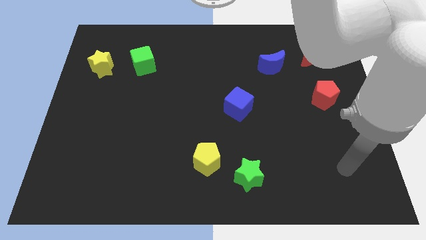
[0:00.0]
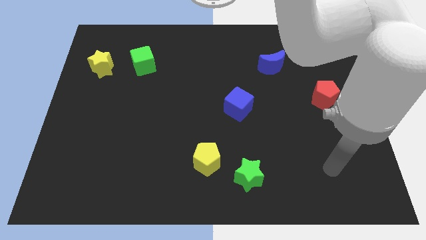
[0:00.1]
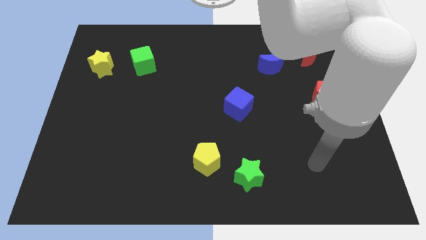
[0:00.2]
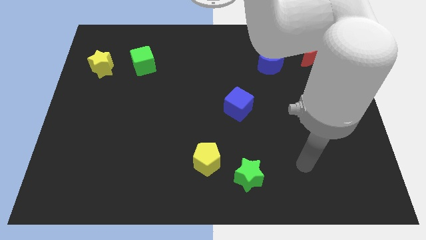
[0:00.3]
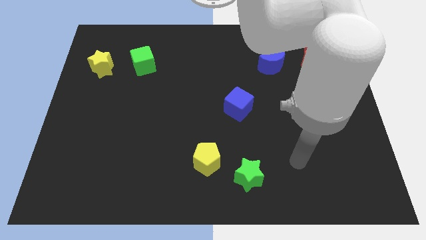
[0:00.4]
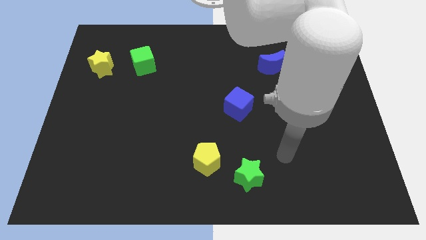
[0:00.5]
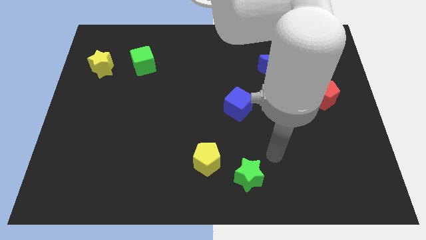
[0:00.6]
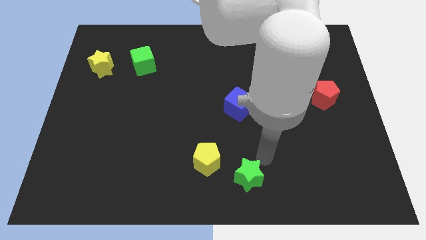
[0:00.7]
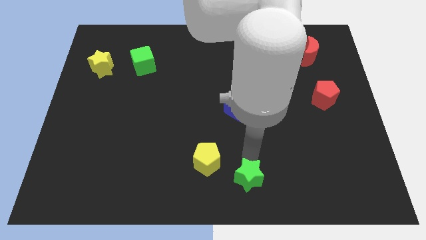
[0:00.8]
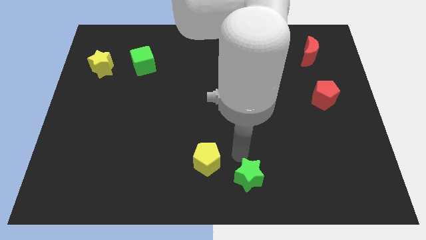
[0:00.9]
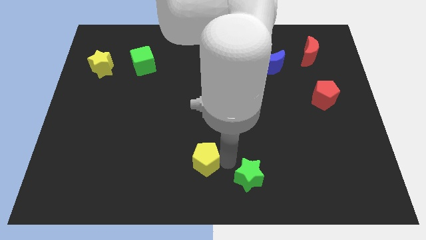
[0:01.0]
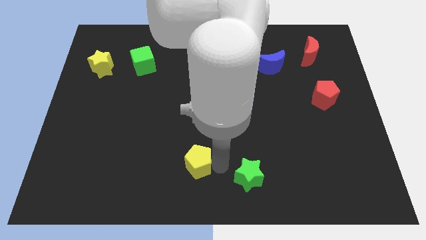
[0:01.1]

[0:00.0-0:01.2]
pull the green star apart from the yellow pentagon

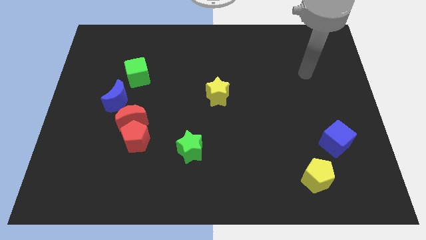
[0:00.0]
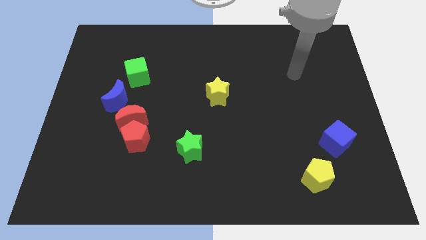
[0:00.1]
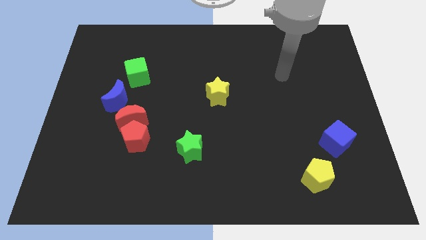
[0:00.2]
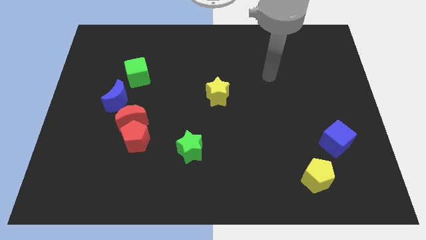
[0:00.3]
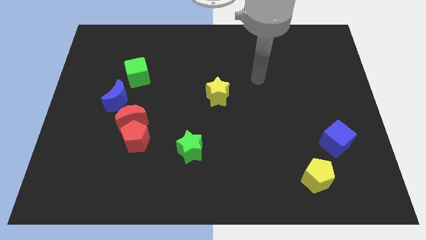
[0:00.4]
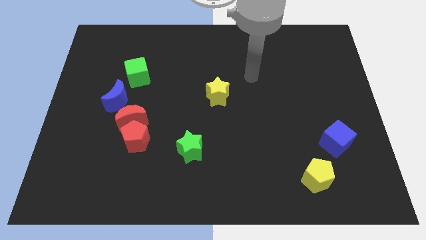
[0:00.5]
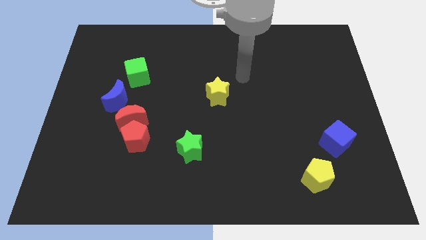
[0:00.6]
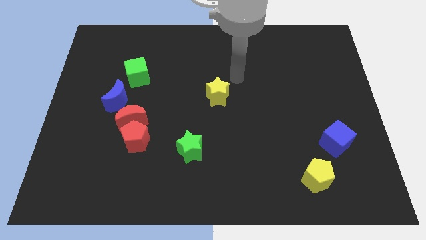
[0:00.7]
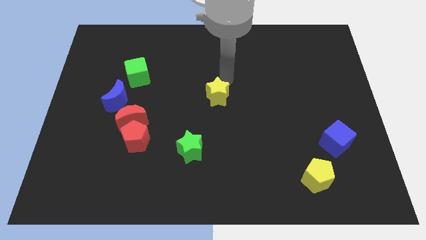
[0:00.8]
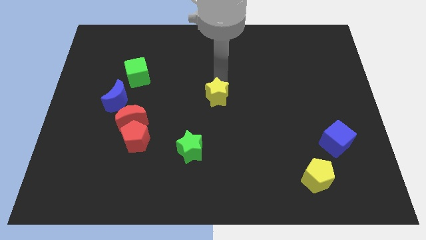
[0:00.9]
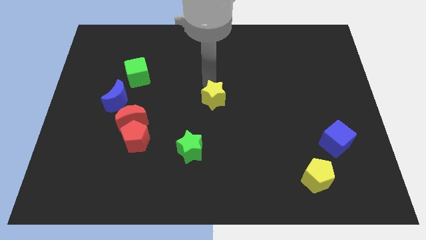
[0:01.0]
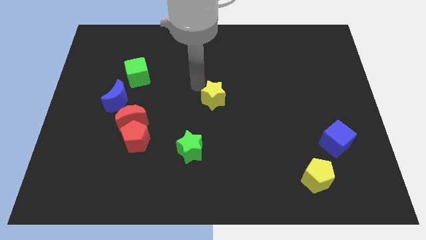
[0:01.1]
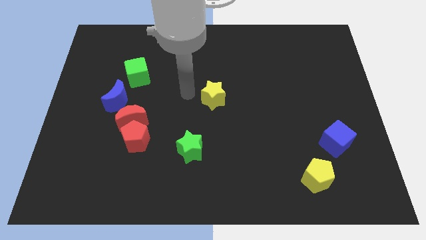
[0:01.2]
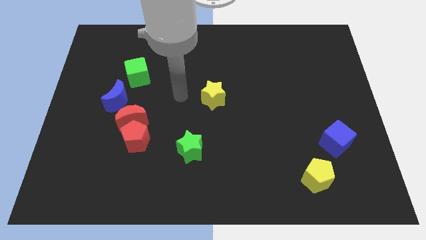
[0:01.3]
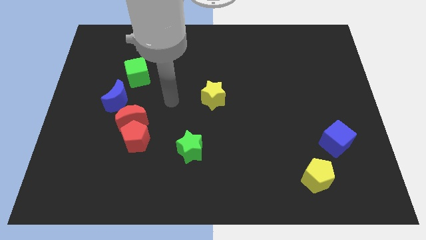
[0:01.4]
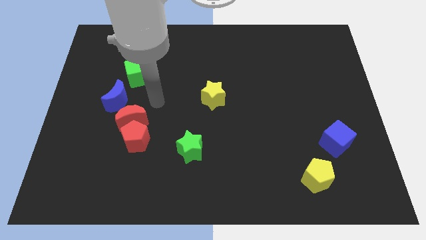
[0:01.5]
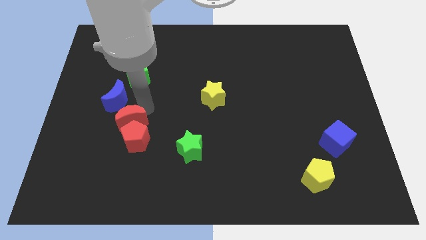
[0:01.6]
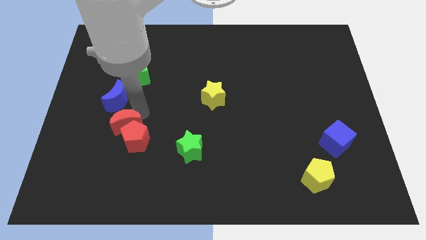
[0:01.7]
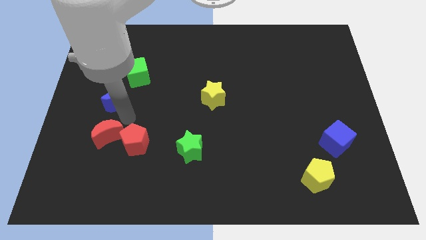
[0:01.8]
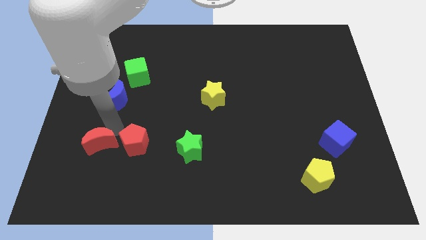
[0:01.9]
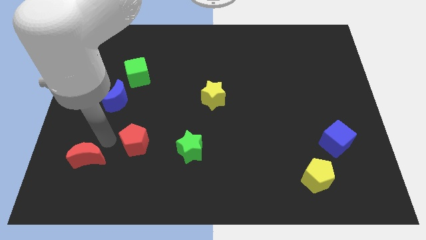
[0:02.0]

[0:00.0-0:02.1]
separate the red pentagon from the red moon

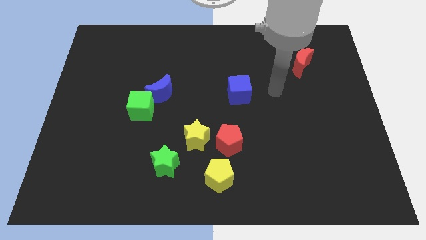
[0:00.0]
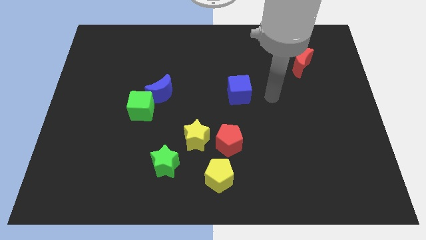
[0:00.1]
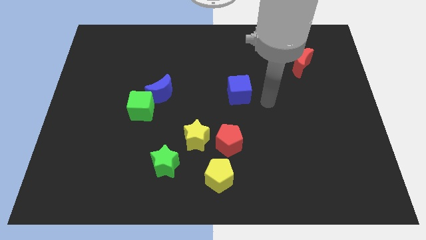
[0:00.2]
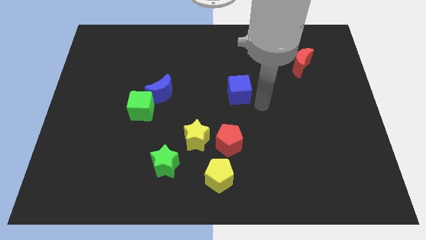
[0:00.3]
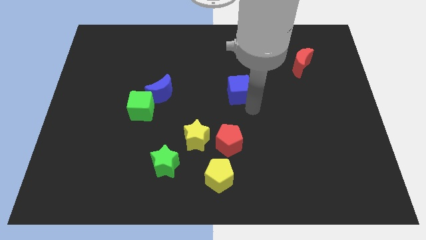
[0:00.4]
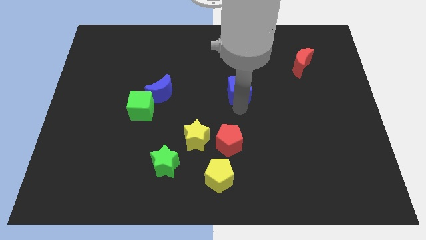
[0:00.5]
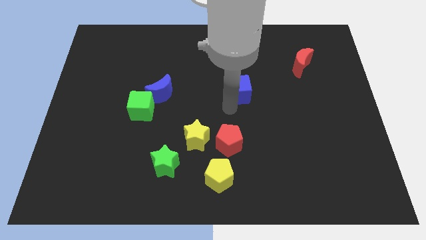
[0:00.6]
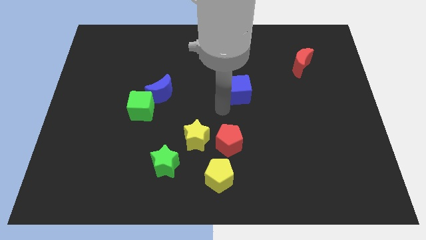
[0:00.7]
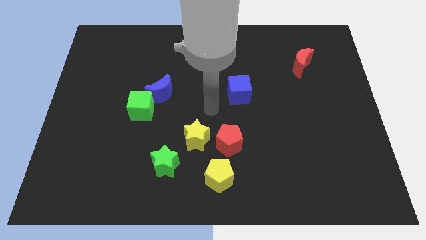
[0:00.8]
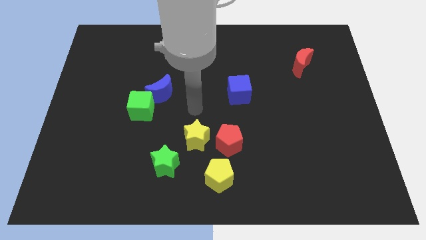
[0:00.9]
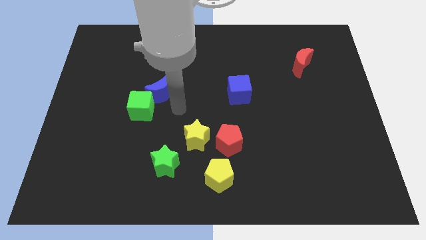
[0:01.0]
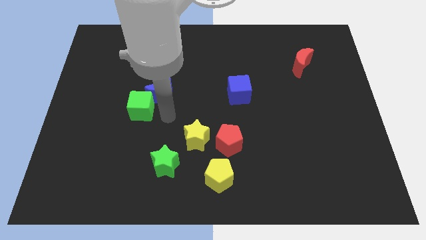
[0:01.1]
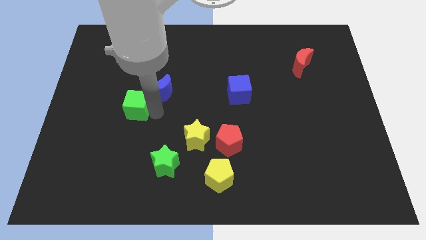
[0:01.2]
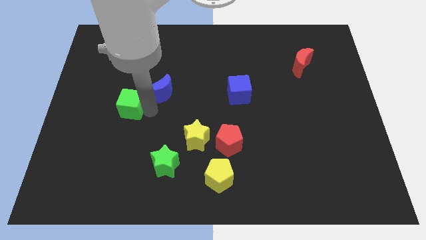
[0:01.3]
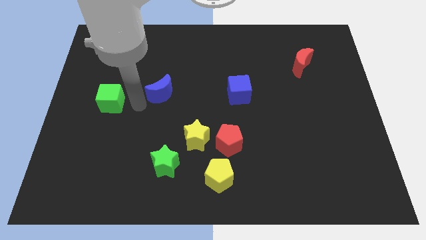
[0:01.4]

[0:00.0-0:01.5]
move the blue moon away from the green cube

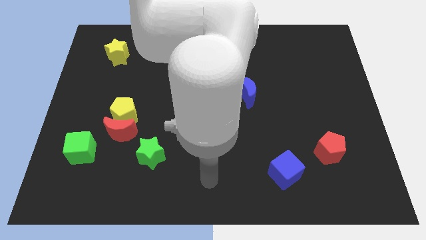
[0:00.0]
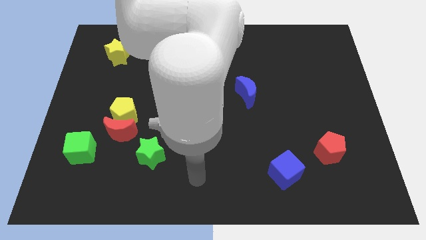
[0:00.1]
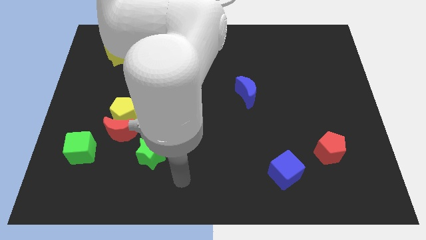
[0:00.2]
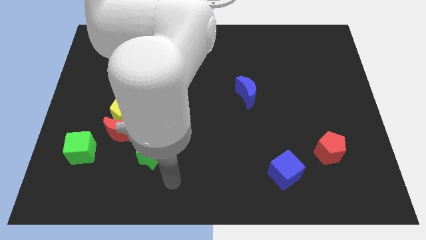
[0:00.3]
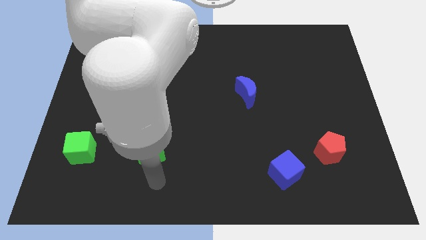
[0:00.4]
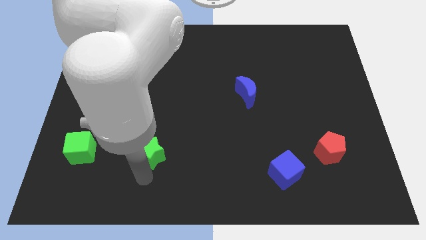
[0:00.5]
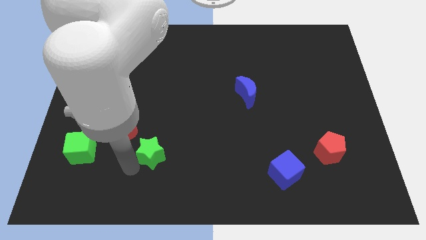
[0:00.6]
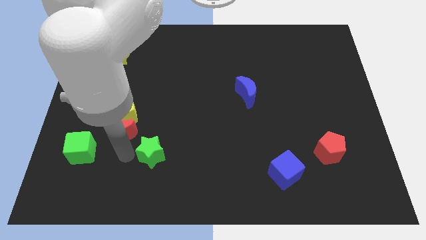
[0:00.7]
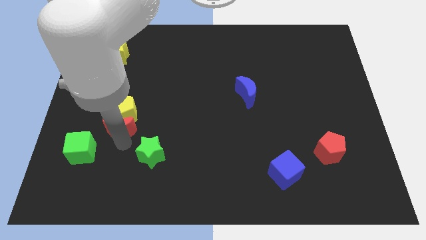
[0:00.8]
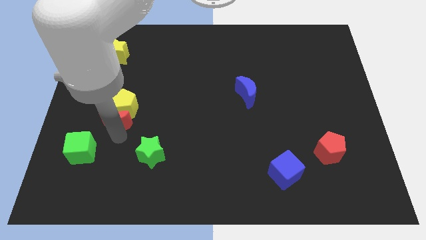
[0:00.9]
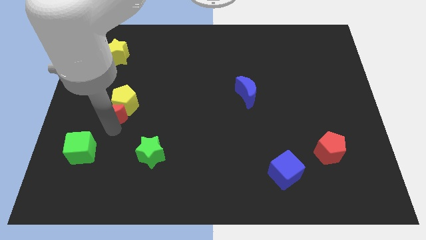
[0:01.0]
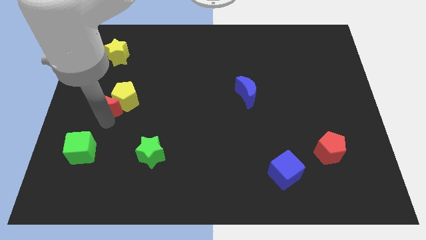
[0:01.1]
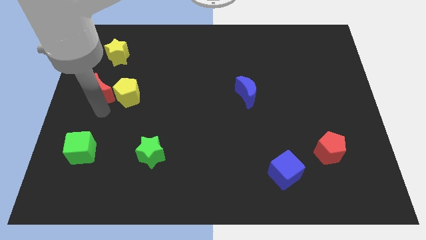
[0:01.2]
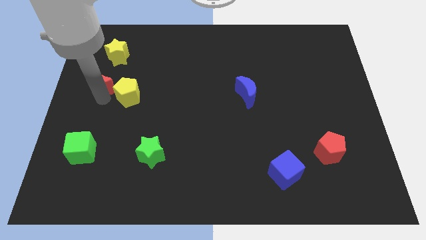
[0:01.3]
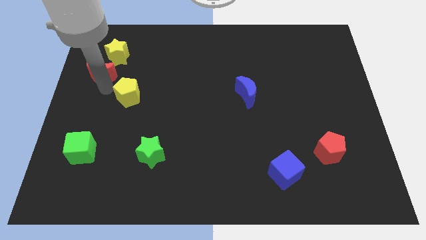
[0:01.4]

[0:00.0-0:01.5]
separate the yellow pentagon from the red moon

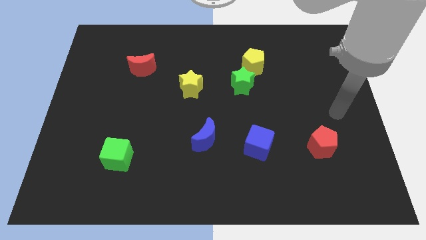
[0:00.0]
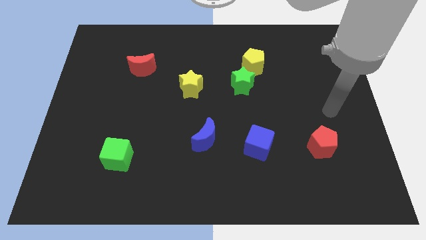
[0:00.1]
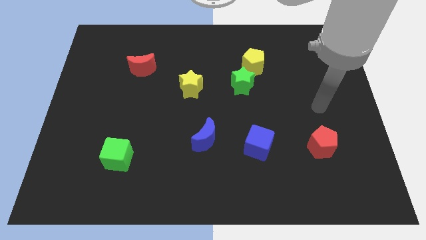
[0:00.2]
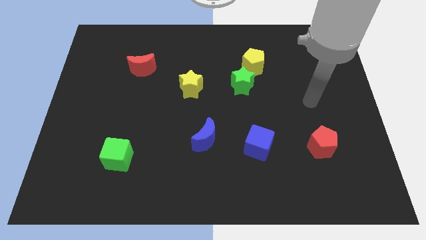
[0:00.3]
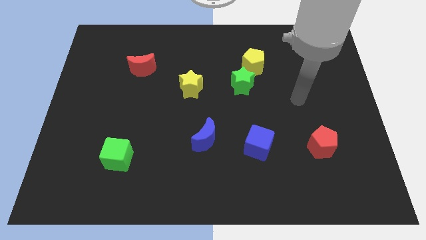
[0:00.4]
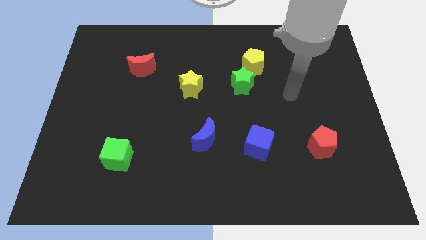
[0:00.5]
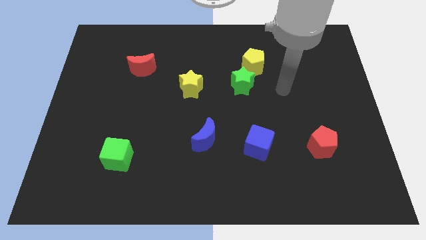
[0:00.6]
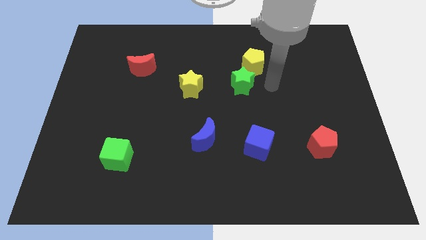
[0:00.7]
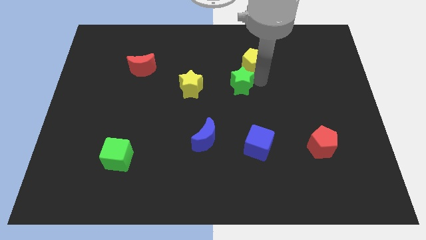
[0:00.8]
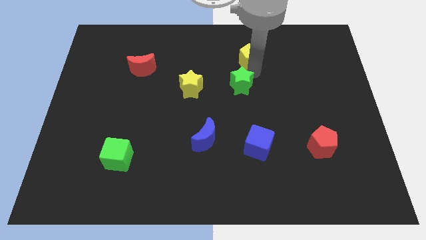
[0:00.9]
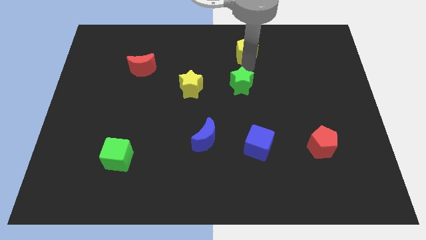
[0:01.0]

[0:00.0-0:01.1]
separate the green star from the yellow pentagon

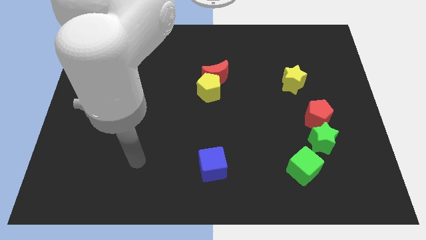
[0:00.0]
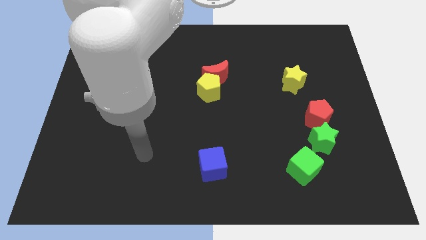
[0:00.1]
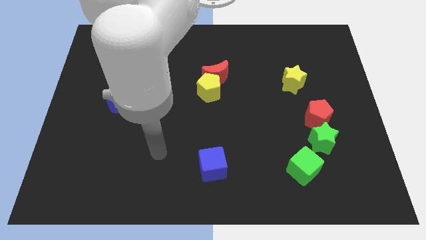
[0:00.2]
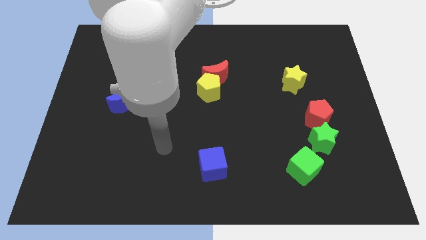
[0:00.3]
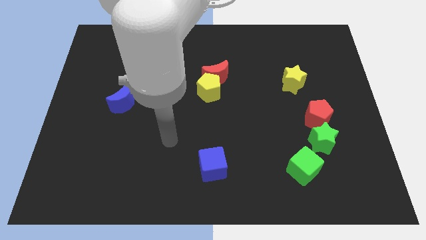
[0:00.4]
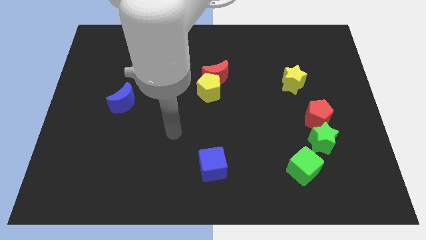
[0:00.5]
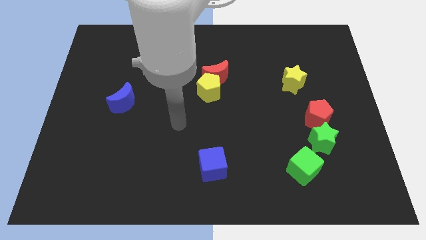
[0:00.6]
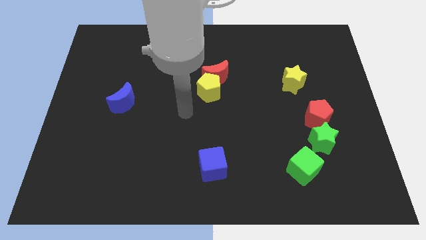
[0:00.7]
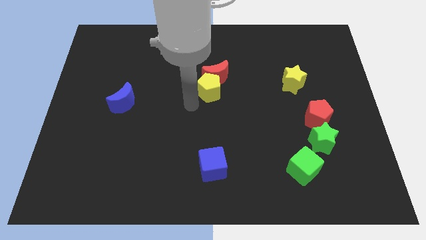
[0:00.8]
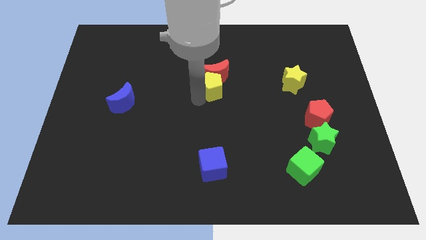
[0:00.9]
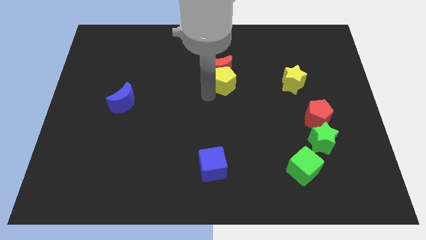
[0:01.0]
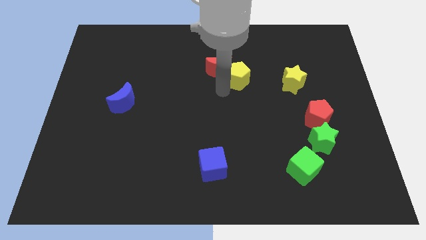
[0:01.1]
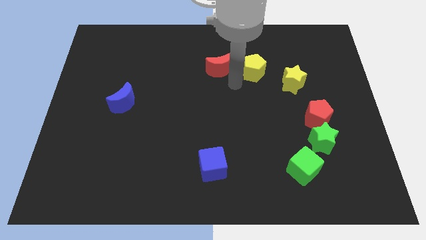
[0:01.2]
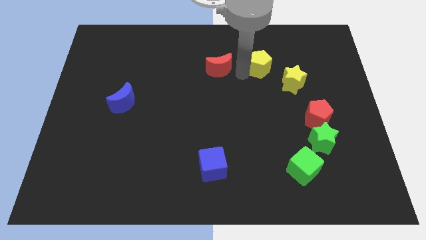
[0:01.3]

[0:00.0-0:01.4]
move the red moon away from the yellow pentagon

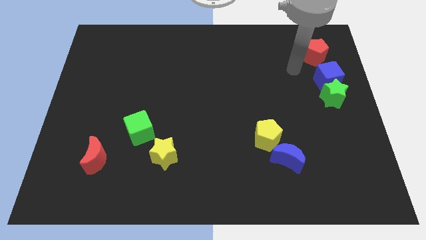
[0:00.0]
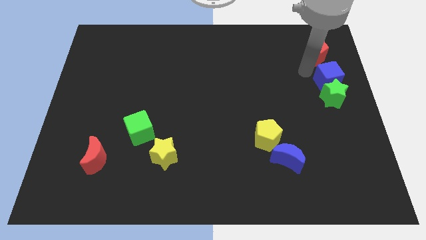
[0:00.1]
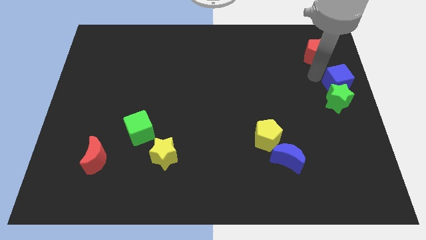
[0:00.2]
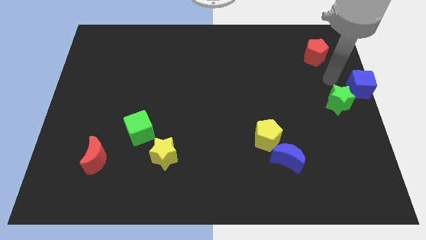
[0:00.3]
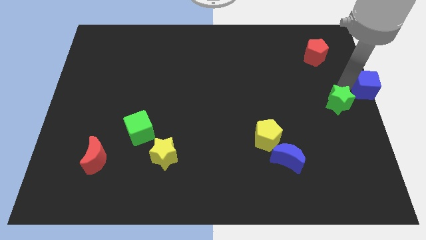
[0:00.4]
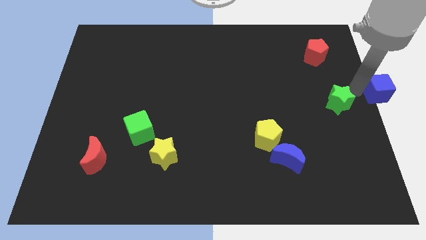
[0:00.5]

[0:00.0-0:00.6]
pull the green star apart from the blue cube
